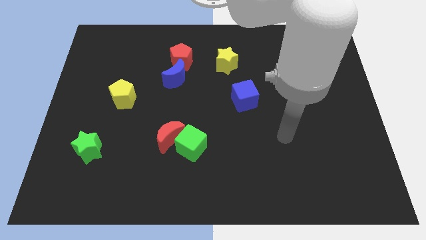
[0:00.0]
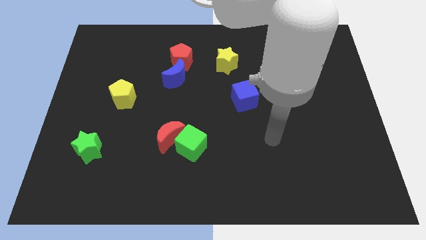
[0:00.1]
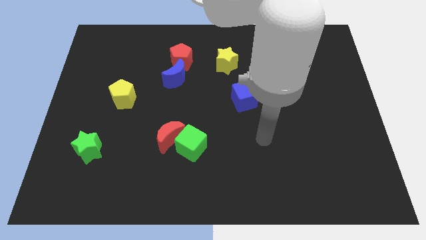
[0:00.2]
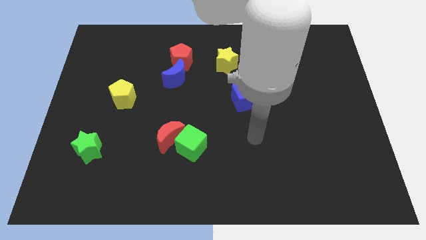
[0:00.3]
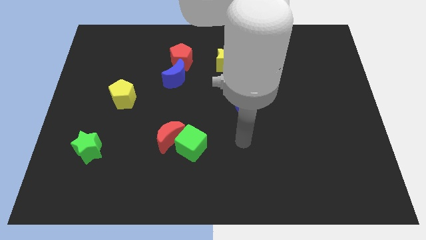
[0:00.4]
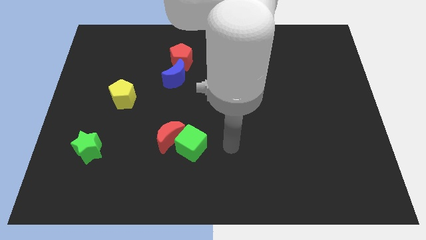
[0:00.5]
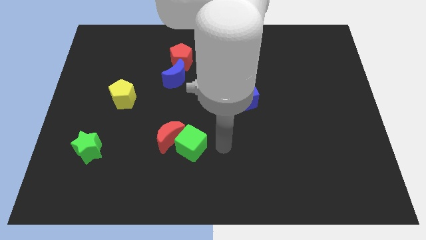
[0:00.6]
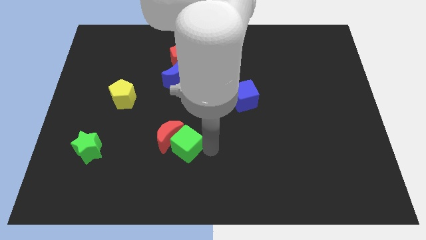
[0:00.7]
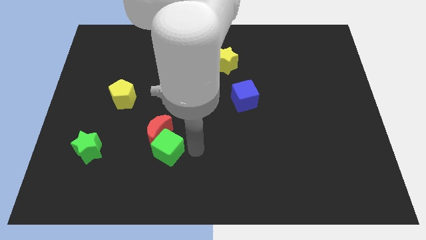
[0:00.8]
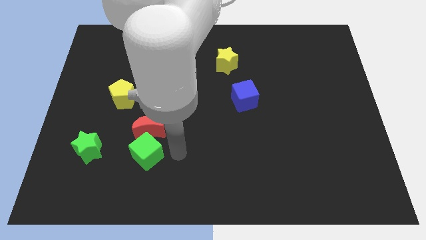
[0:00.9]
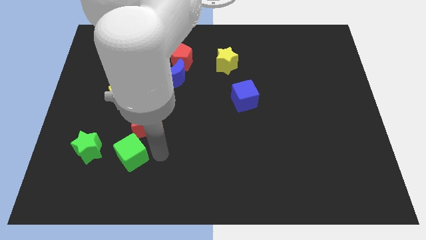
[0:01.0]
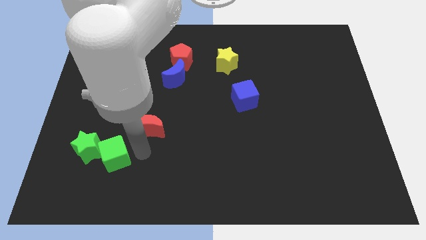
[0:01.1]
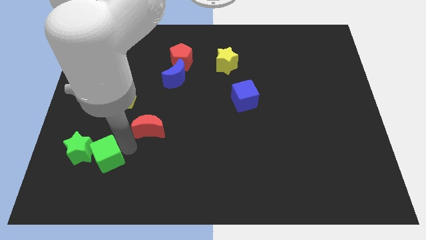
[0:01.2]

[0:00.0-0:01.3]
move the red moon away from the green cube

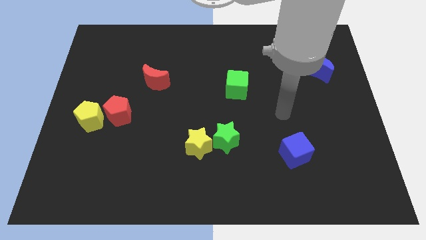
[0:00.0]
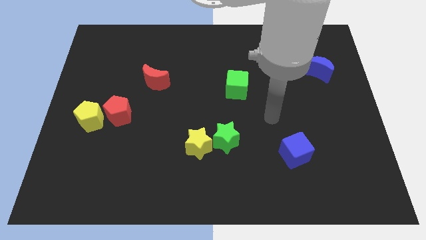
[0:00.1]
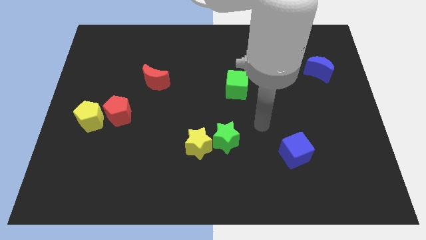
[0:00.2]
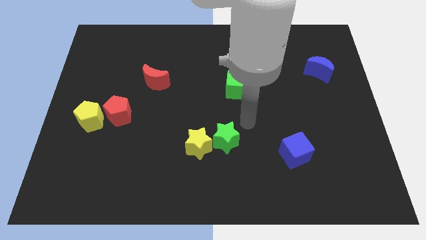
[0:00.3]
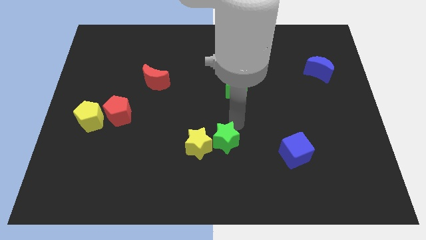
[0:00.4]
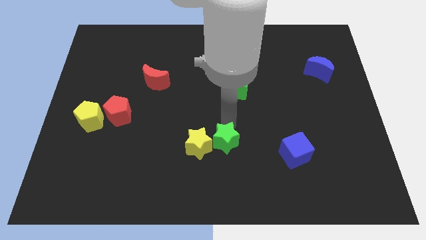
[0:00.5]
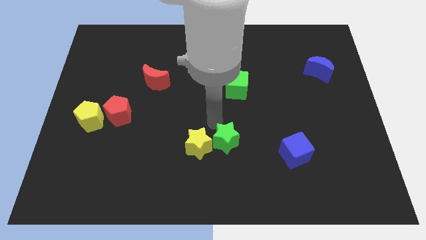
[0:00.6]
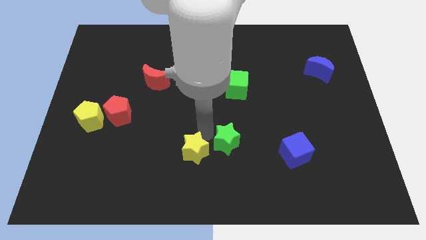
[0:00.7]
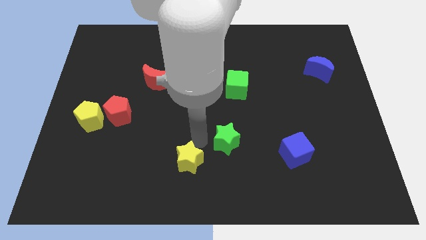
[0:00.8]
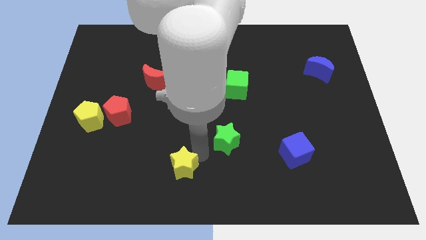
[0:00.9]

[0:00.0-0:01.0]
move the green star away from the yellow star

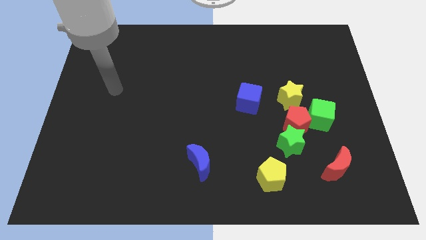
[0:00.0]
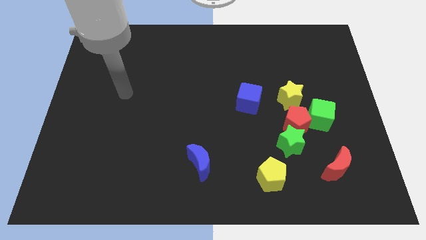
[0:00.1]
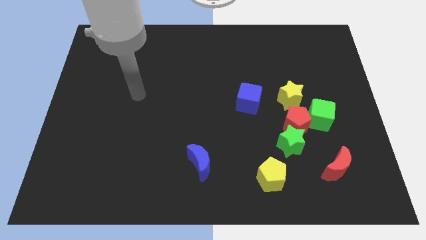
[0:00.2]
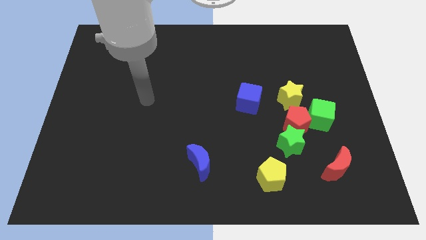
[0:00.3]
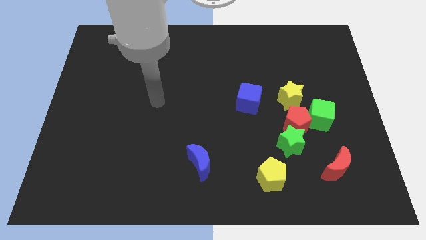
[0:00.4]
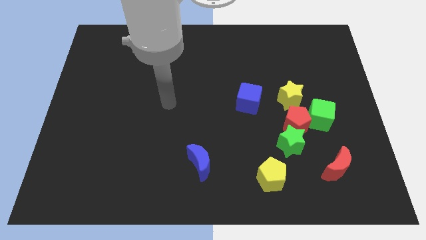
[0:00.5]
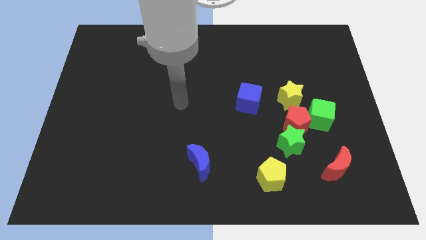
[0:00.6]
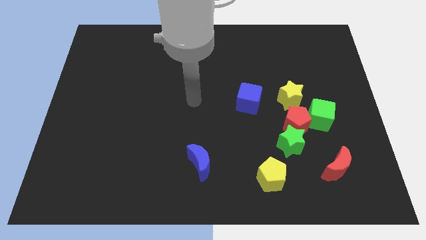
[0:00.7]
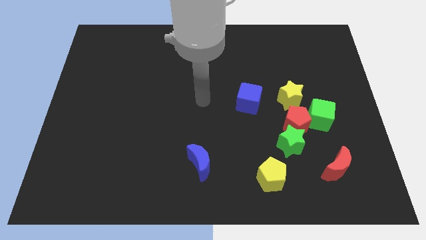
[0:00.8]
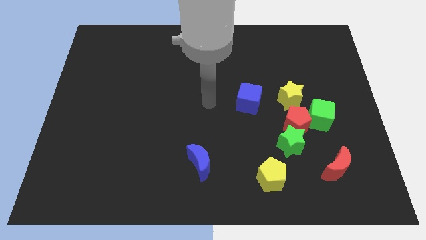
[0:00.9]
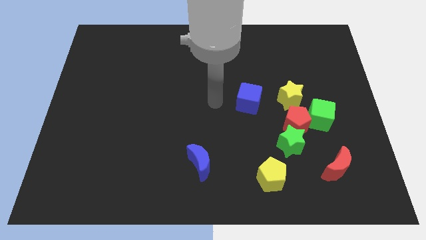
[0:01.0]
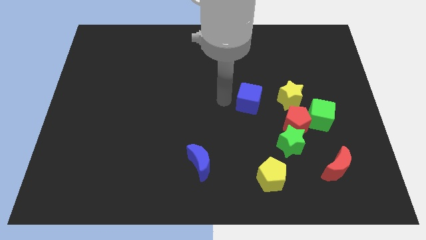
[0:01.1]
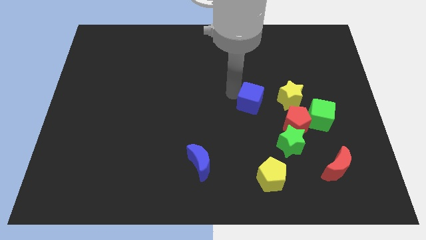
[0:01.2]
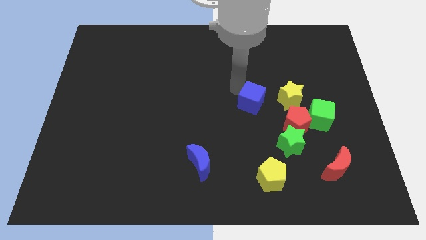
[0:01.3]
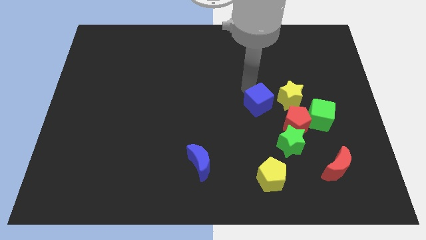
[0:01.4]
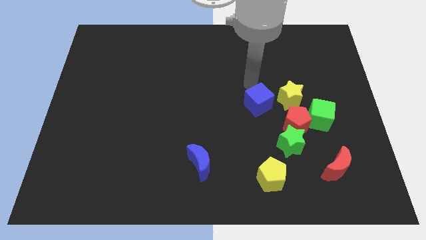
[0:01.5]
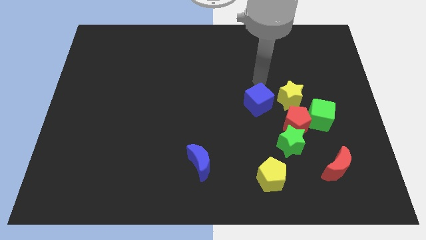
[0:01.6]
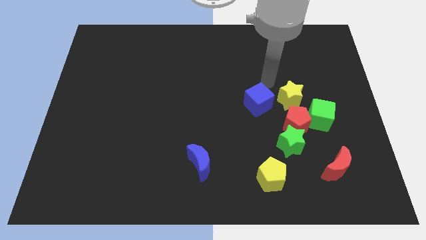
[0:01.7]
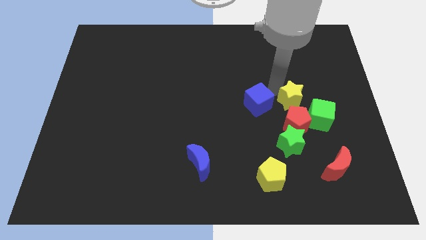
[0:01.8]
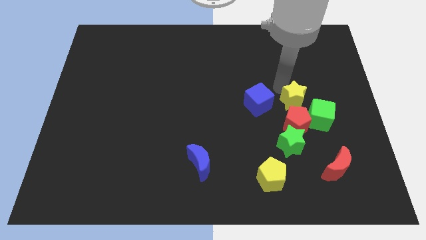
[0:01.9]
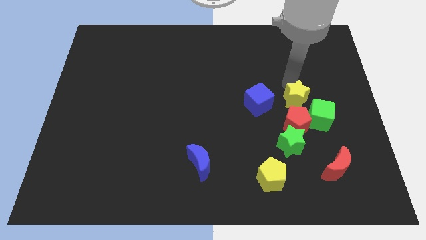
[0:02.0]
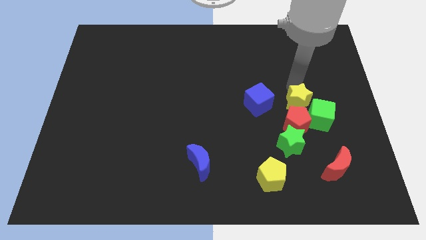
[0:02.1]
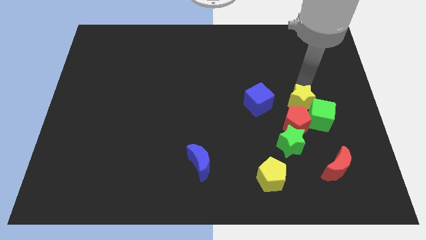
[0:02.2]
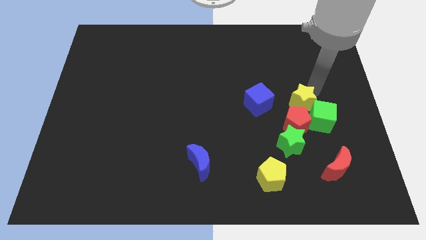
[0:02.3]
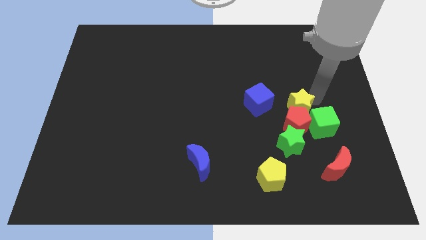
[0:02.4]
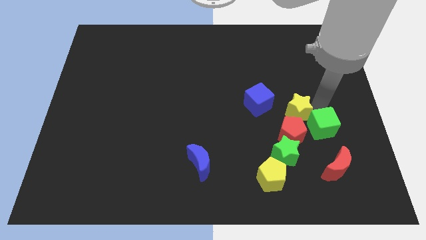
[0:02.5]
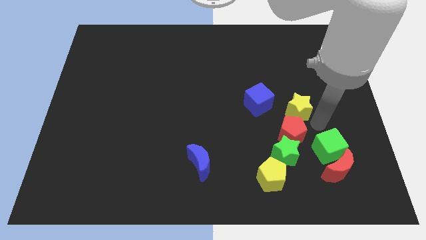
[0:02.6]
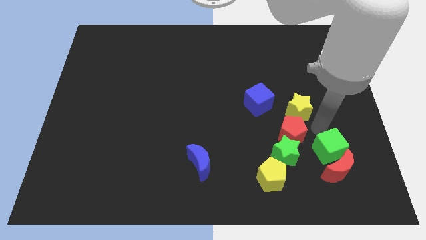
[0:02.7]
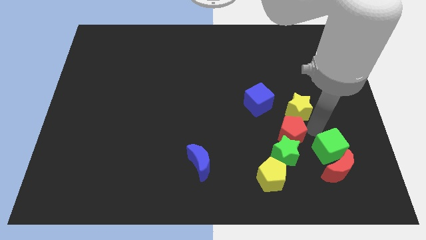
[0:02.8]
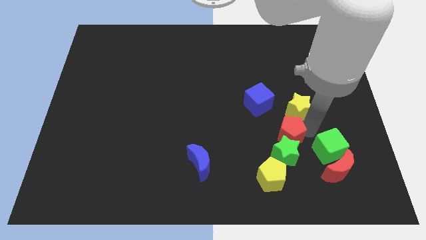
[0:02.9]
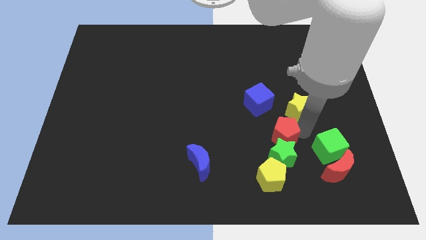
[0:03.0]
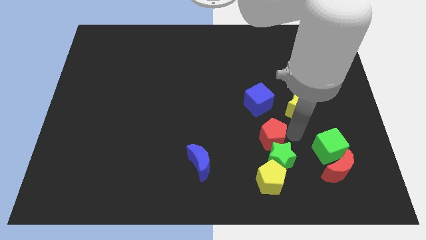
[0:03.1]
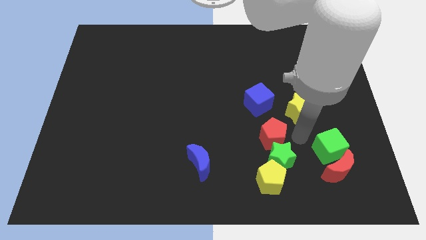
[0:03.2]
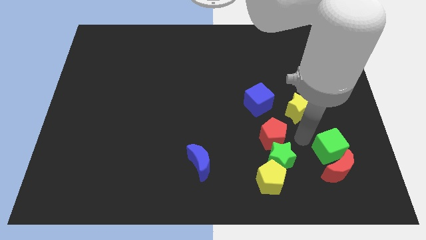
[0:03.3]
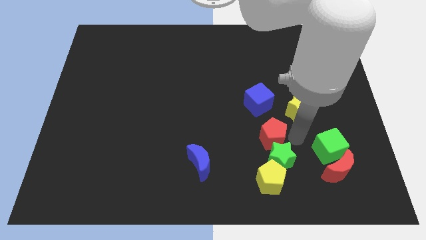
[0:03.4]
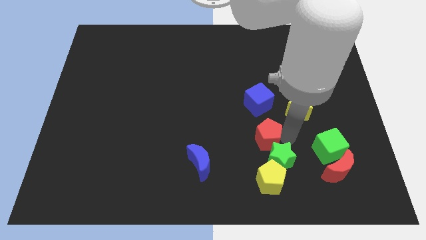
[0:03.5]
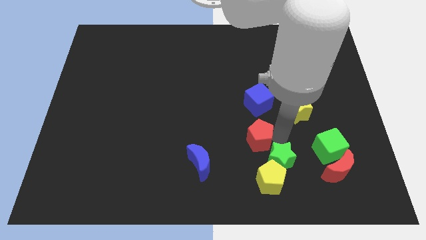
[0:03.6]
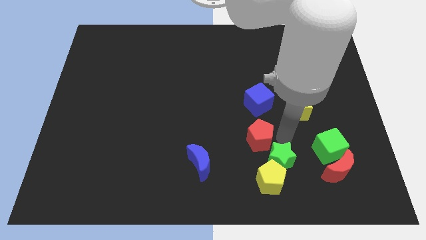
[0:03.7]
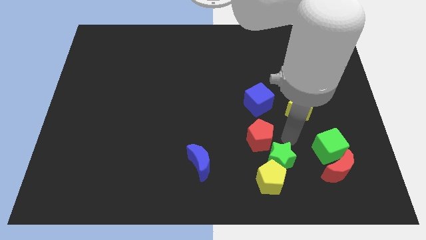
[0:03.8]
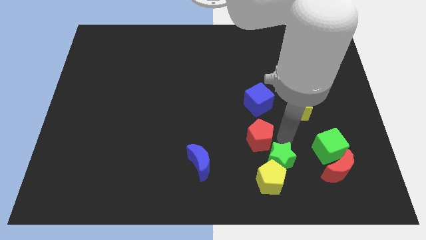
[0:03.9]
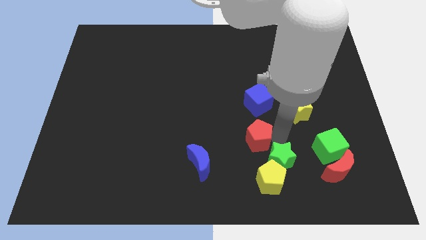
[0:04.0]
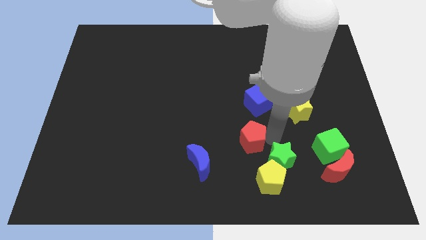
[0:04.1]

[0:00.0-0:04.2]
separate the red pentagon from the group

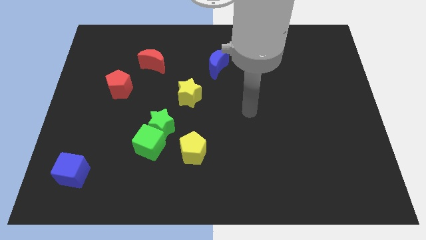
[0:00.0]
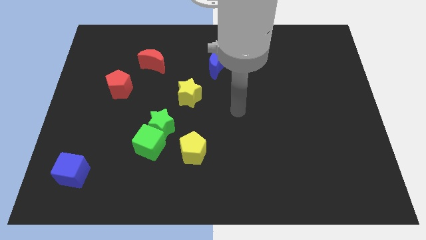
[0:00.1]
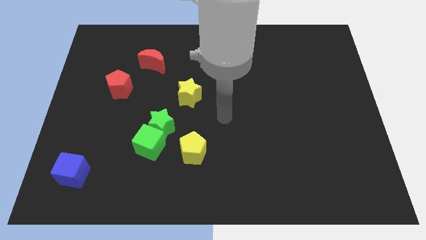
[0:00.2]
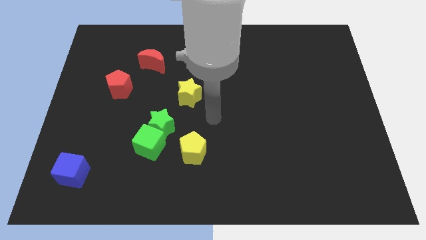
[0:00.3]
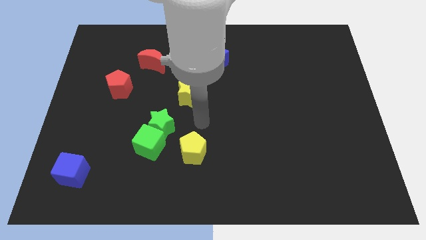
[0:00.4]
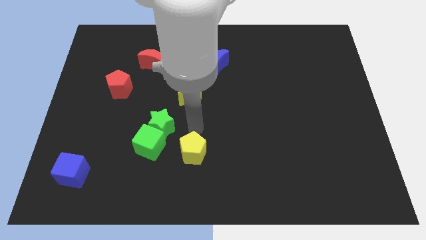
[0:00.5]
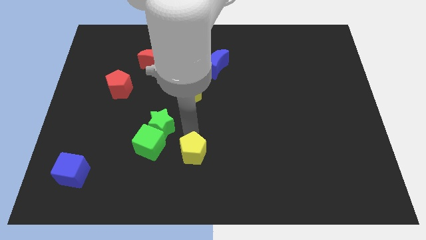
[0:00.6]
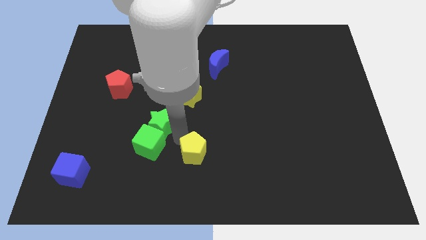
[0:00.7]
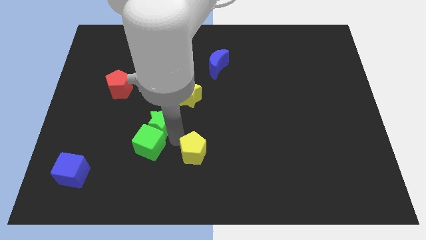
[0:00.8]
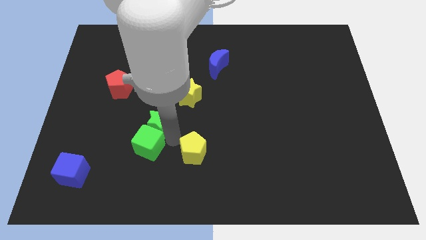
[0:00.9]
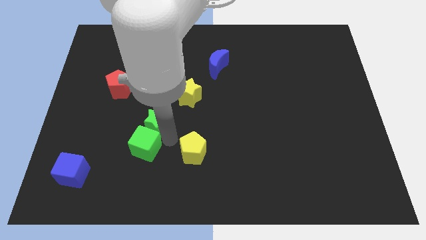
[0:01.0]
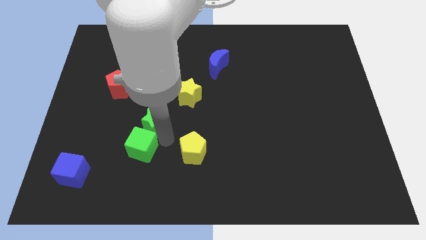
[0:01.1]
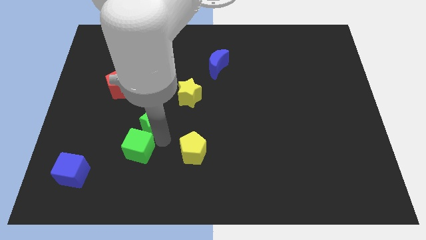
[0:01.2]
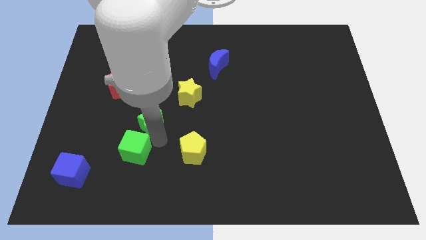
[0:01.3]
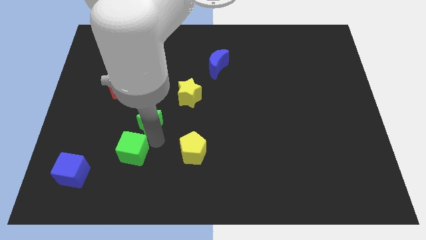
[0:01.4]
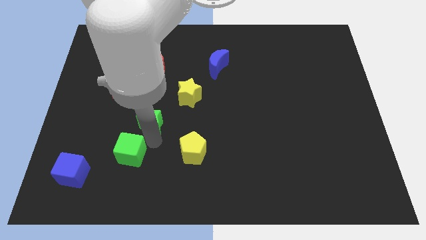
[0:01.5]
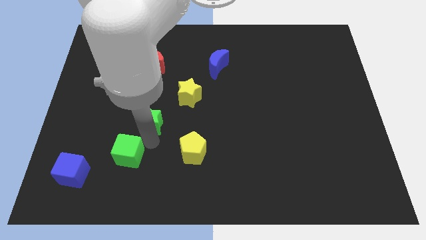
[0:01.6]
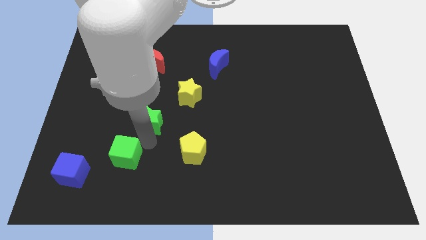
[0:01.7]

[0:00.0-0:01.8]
pull the green cube apart from the green star and yellow pentagon

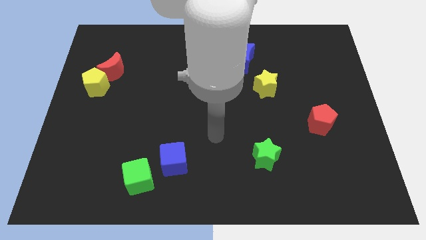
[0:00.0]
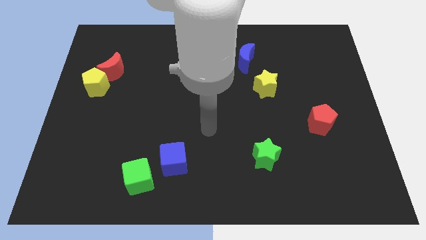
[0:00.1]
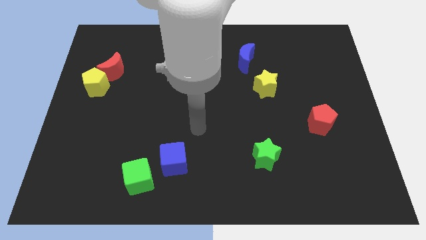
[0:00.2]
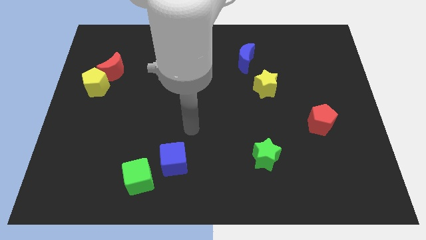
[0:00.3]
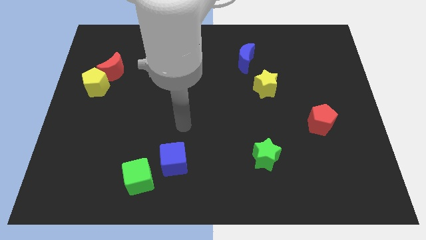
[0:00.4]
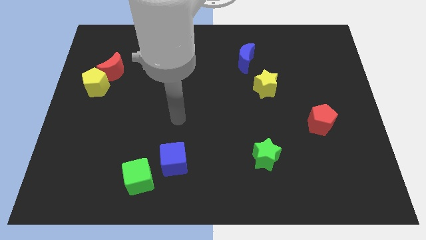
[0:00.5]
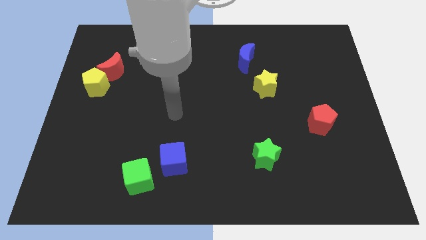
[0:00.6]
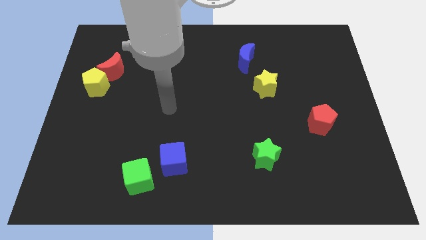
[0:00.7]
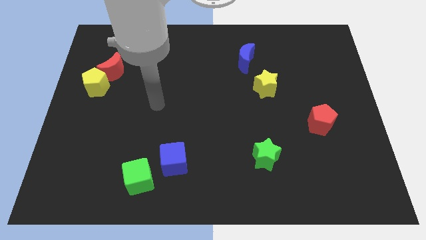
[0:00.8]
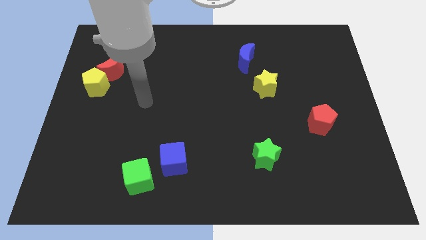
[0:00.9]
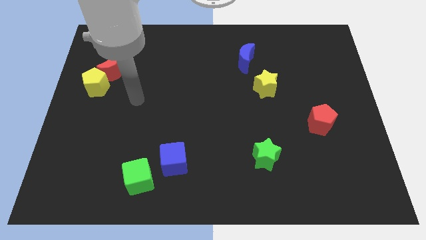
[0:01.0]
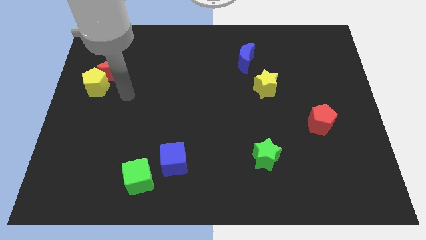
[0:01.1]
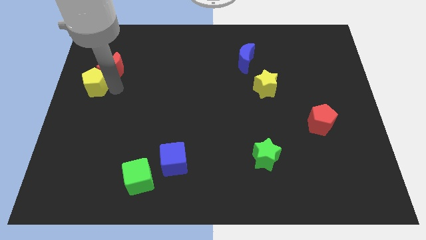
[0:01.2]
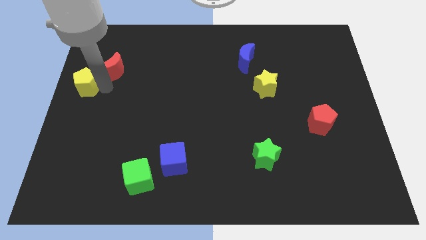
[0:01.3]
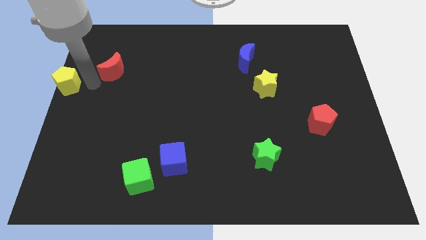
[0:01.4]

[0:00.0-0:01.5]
pull the red moon apart from the yellow pentagon
